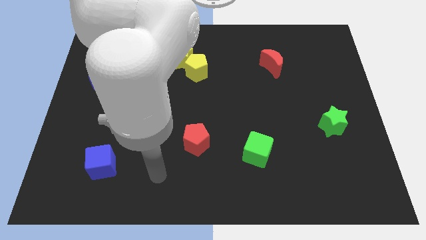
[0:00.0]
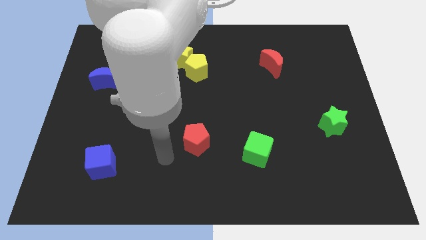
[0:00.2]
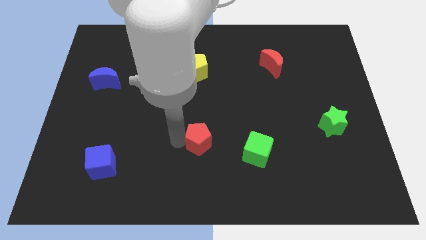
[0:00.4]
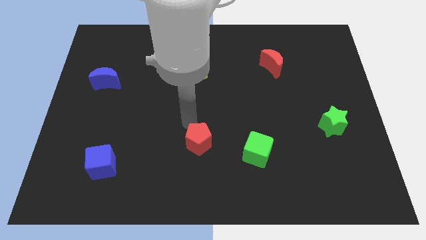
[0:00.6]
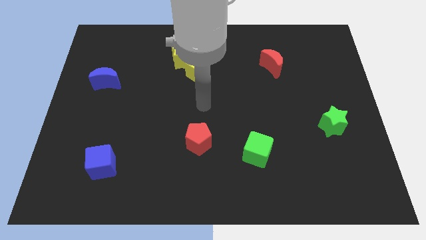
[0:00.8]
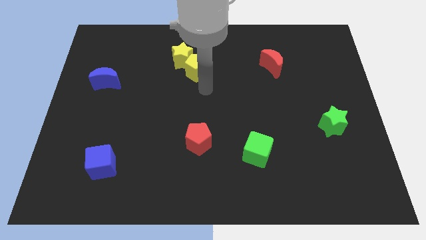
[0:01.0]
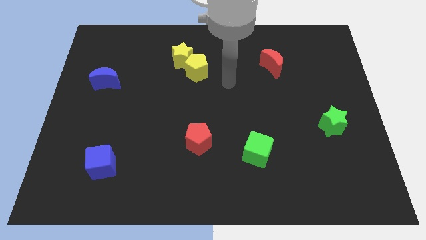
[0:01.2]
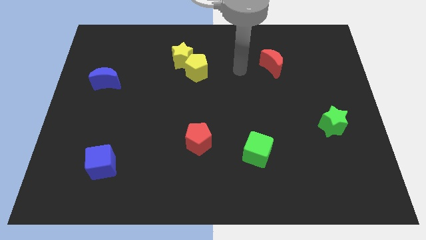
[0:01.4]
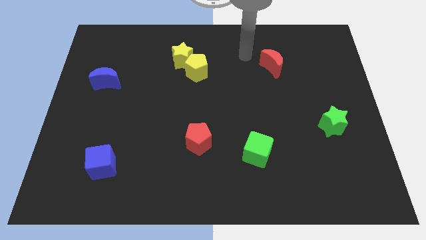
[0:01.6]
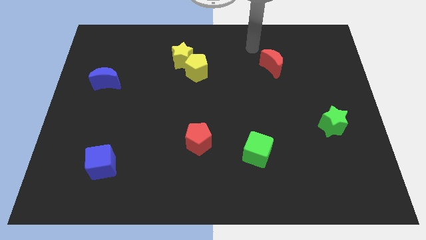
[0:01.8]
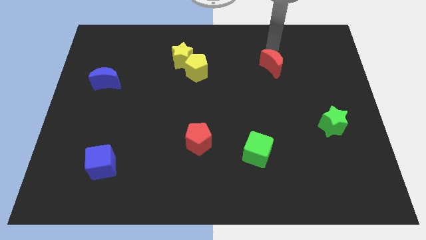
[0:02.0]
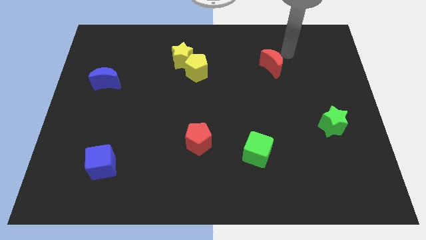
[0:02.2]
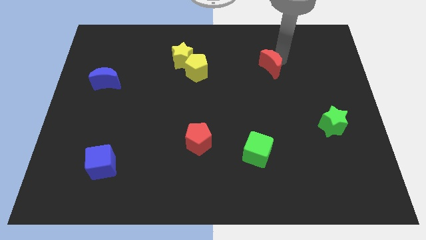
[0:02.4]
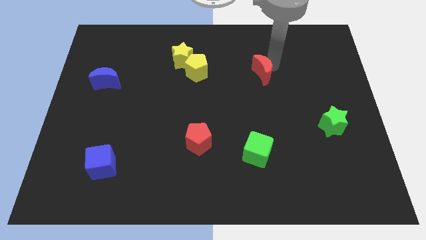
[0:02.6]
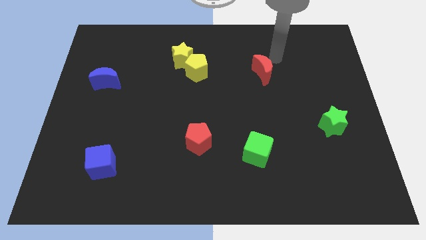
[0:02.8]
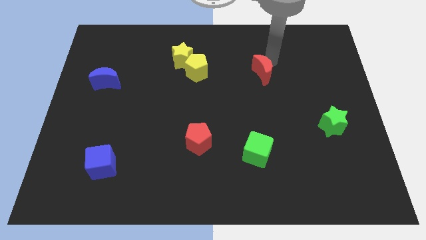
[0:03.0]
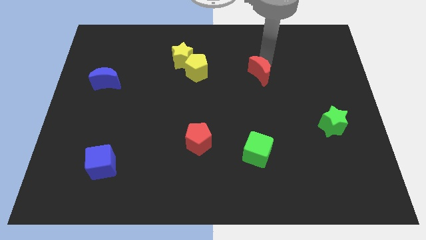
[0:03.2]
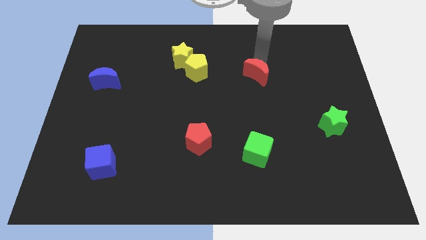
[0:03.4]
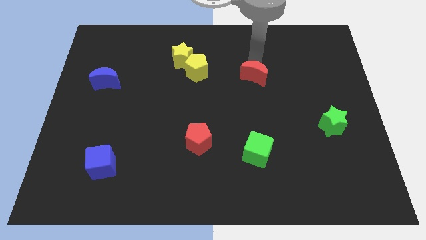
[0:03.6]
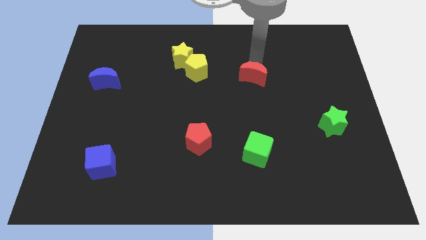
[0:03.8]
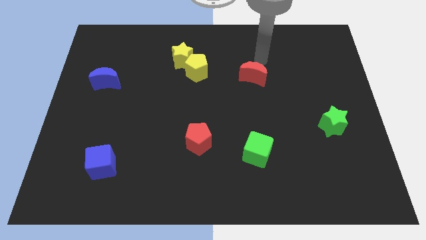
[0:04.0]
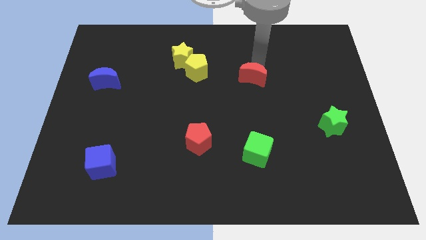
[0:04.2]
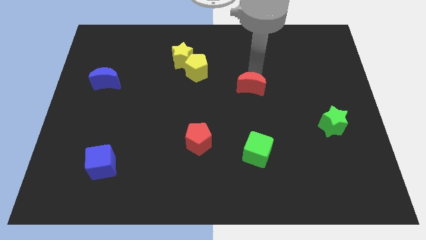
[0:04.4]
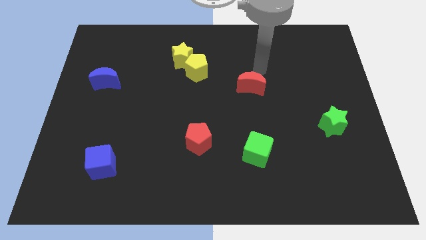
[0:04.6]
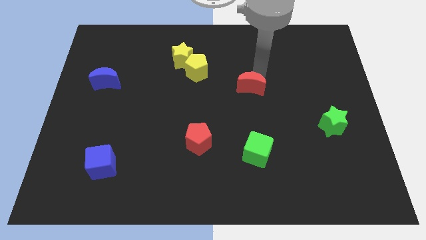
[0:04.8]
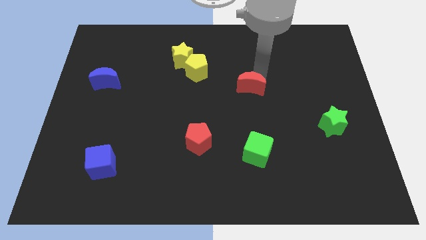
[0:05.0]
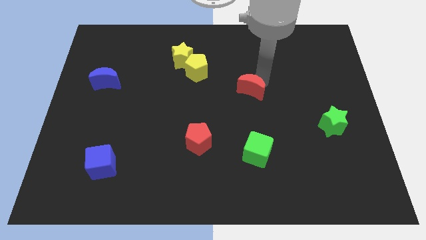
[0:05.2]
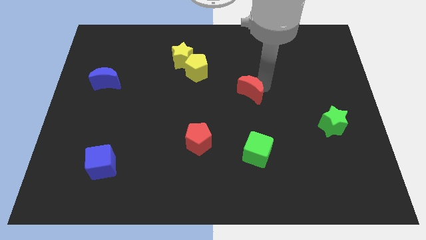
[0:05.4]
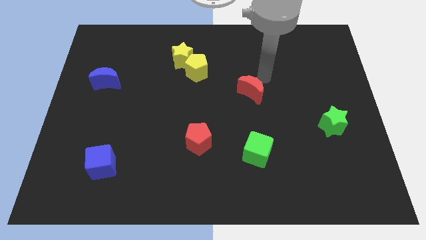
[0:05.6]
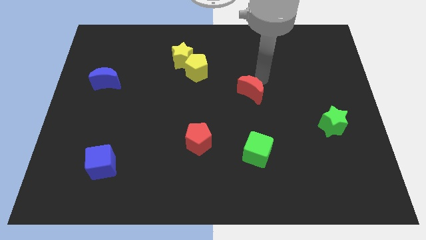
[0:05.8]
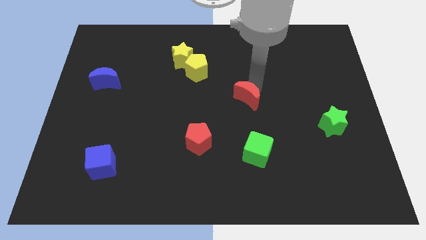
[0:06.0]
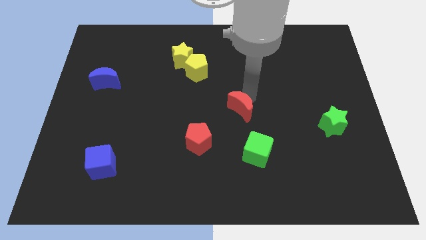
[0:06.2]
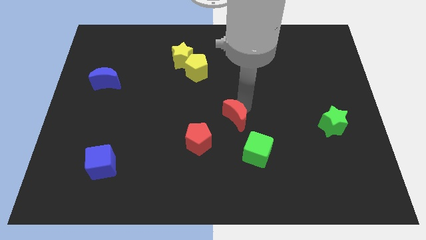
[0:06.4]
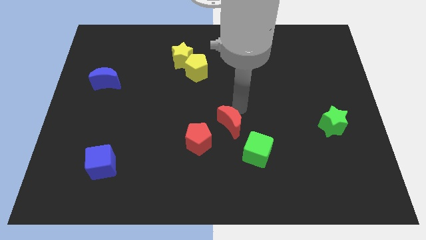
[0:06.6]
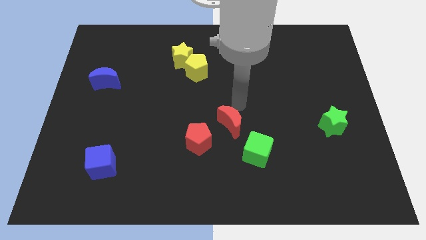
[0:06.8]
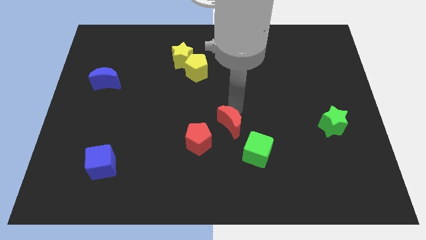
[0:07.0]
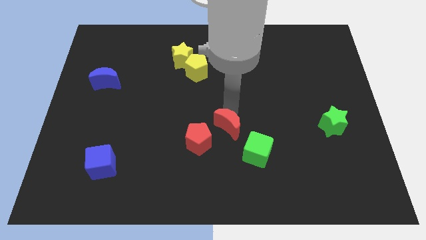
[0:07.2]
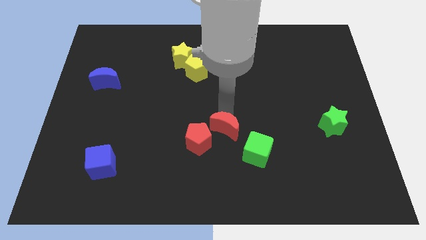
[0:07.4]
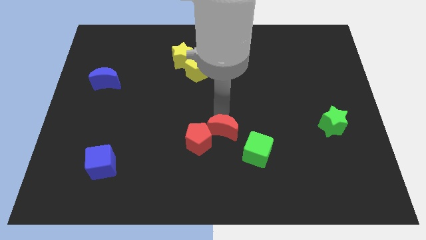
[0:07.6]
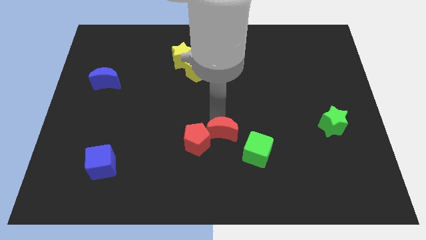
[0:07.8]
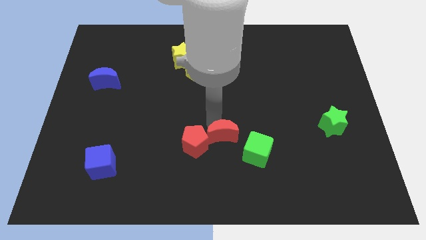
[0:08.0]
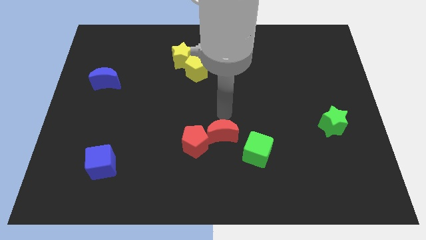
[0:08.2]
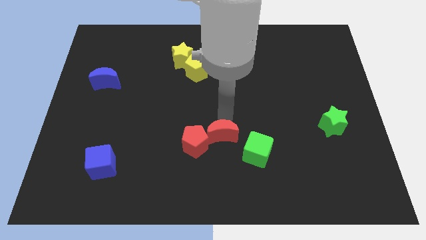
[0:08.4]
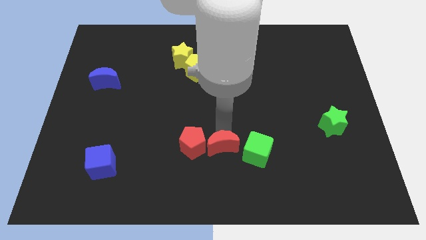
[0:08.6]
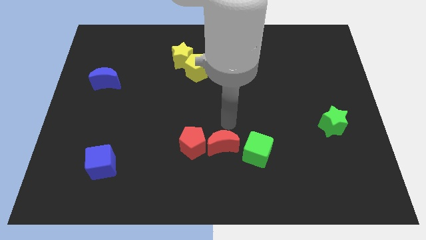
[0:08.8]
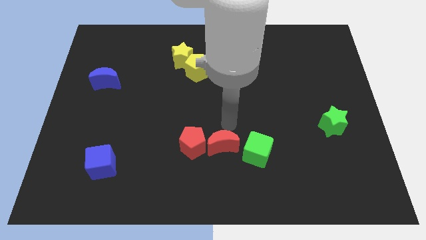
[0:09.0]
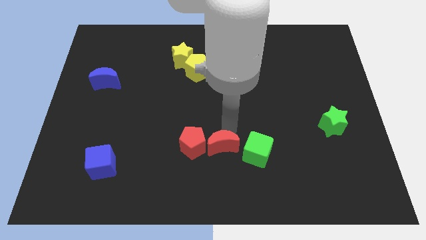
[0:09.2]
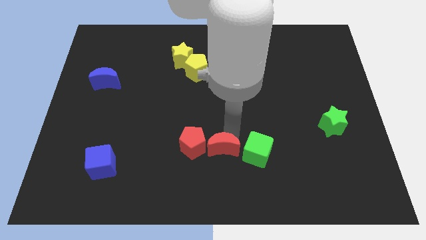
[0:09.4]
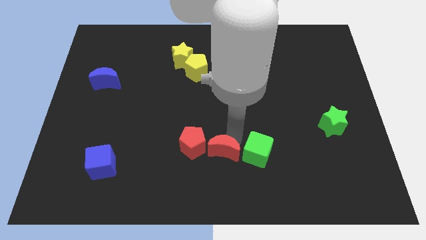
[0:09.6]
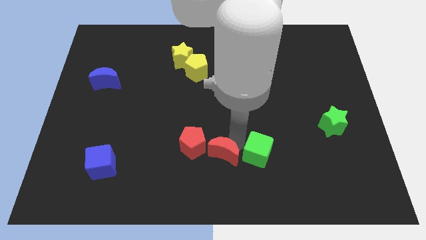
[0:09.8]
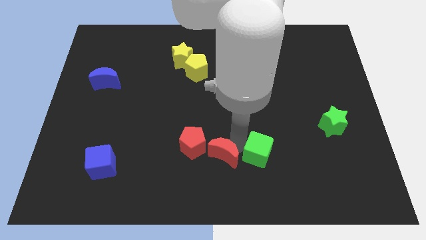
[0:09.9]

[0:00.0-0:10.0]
put the red moon to the bottom side
